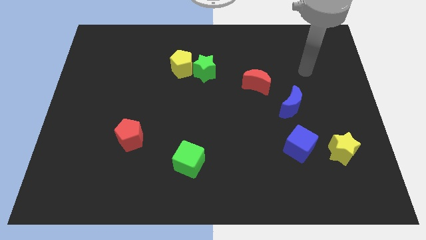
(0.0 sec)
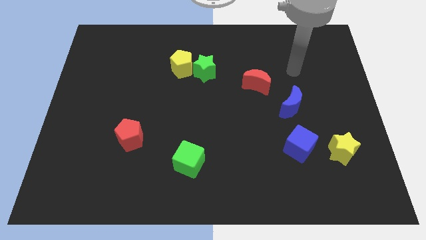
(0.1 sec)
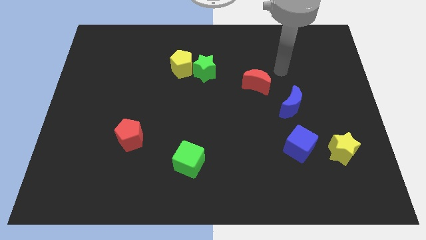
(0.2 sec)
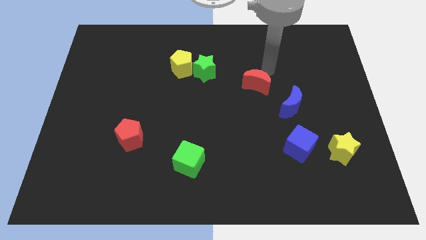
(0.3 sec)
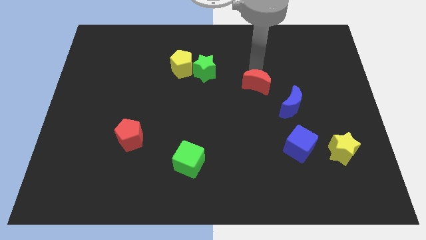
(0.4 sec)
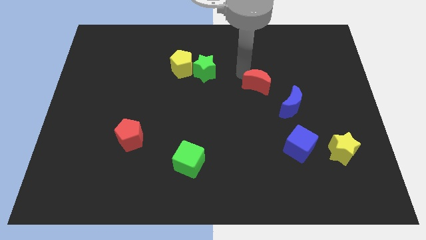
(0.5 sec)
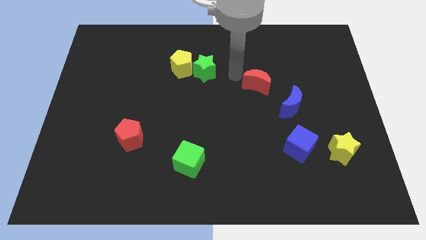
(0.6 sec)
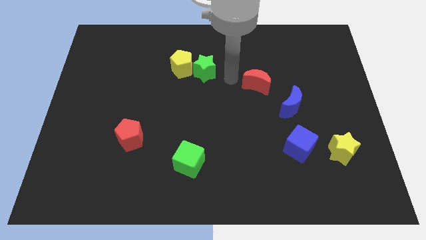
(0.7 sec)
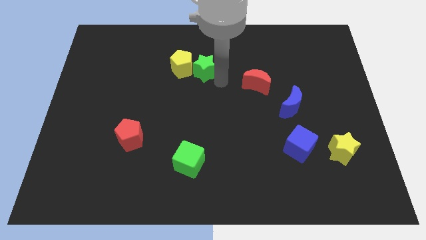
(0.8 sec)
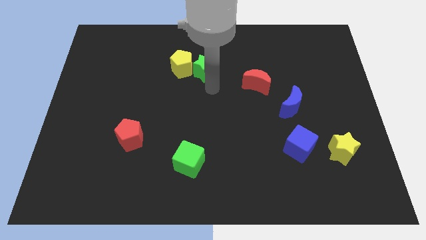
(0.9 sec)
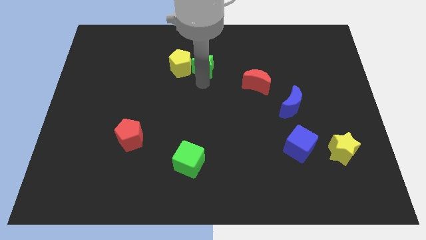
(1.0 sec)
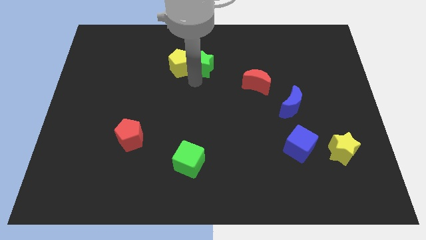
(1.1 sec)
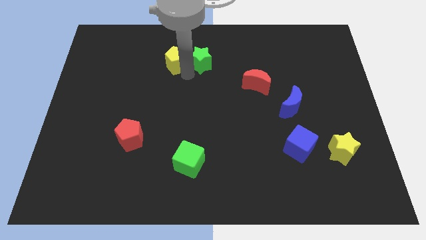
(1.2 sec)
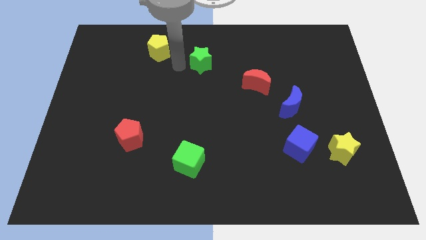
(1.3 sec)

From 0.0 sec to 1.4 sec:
pull the green star apart from the yellow pentagon

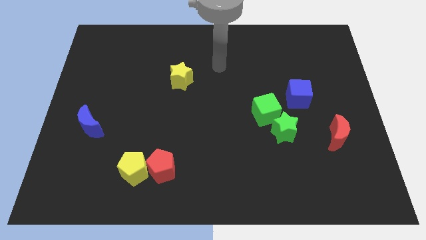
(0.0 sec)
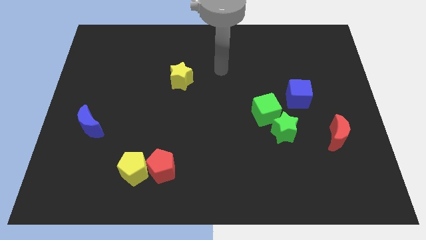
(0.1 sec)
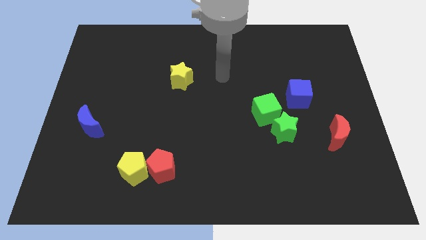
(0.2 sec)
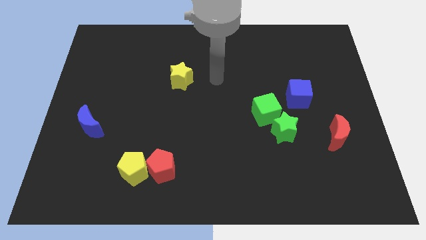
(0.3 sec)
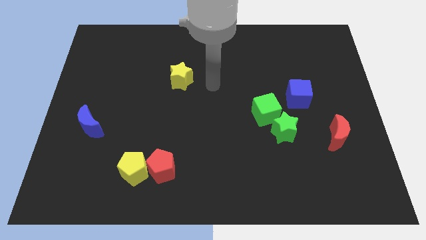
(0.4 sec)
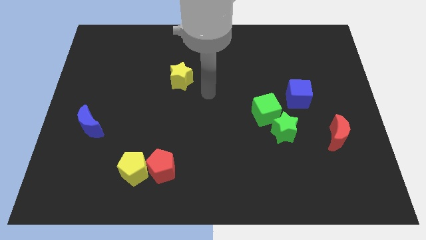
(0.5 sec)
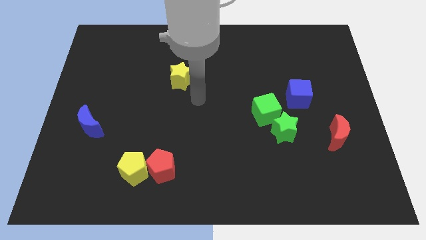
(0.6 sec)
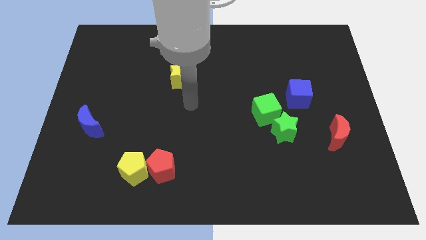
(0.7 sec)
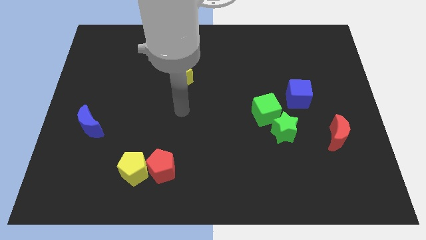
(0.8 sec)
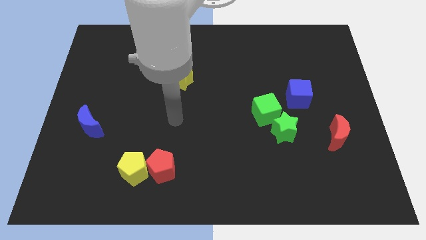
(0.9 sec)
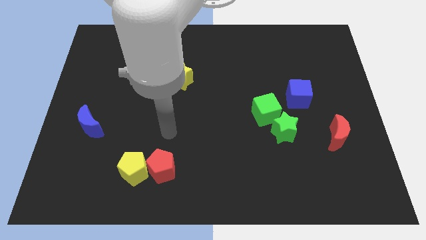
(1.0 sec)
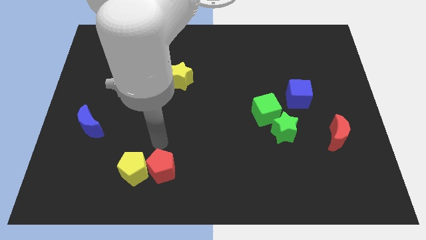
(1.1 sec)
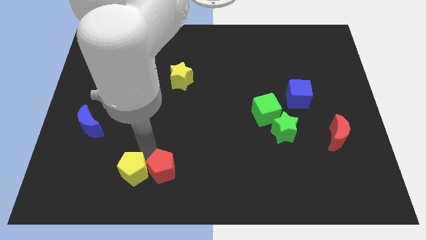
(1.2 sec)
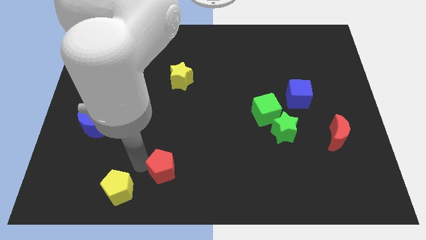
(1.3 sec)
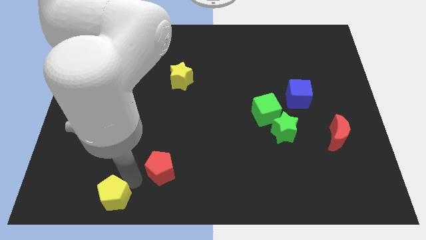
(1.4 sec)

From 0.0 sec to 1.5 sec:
separate the red pentagon from the yellow pentagon

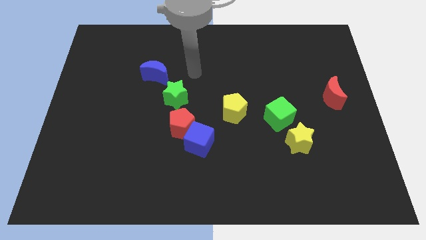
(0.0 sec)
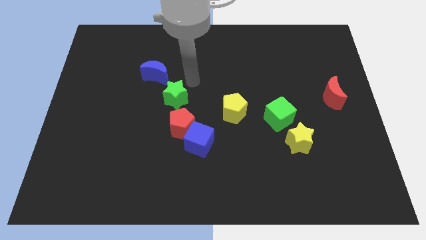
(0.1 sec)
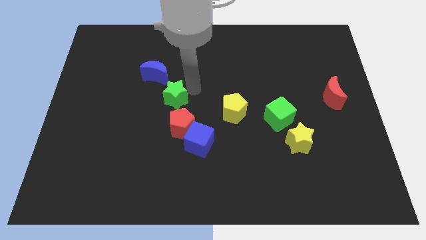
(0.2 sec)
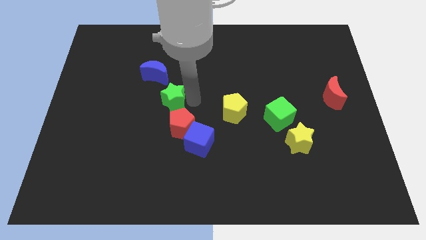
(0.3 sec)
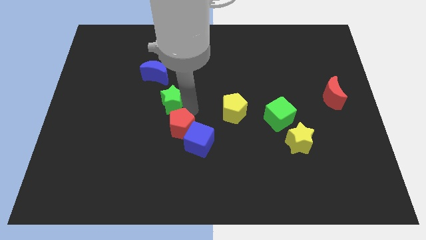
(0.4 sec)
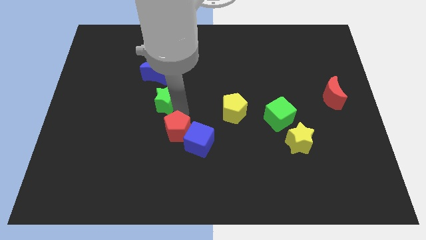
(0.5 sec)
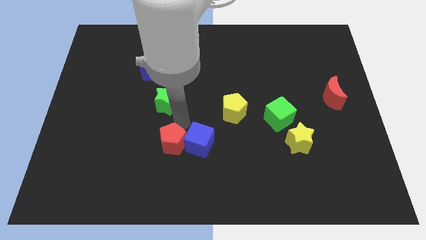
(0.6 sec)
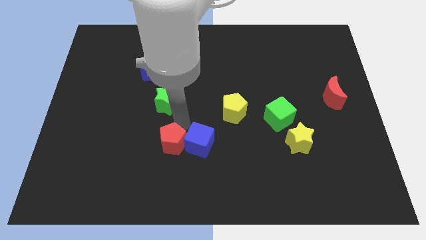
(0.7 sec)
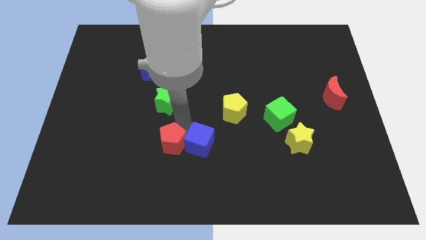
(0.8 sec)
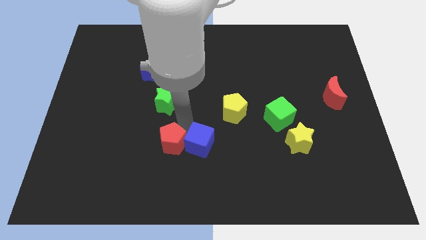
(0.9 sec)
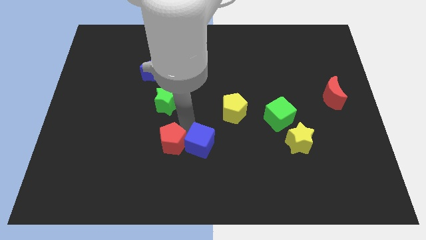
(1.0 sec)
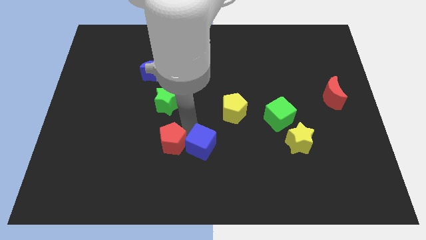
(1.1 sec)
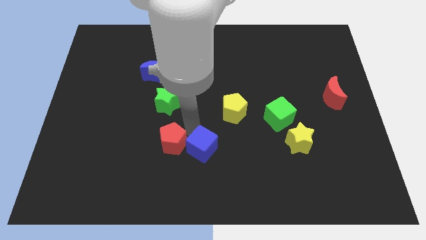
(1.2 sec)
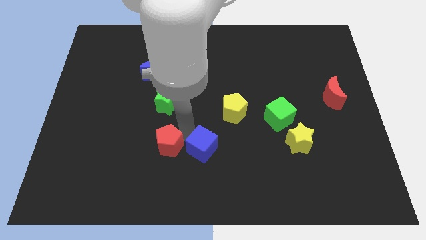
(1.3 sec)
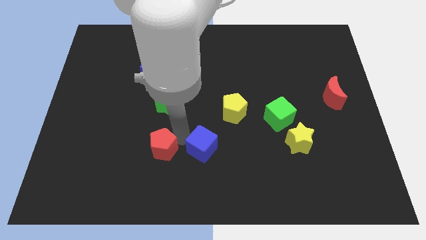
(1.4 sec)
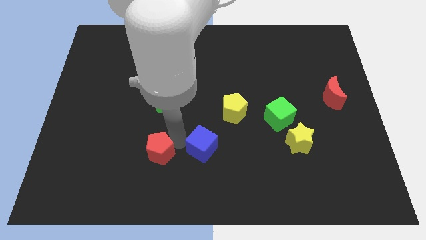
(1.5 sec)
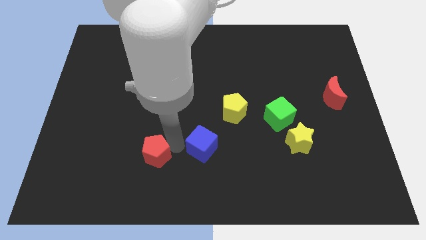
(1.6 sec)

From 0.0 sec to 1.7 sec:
pull the blue cube apart from the red pentagon

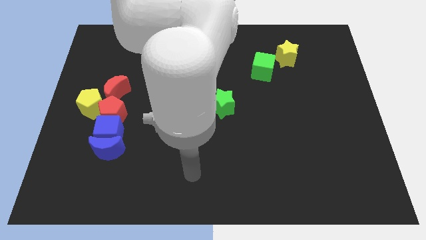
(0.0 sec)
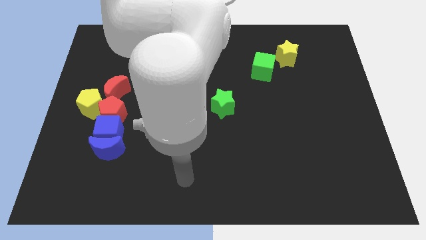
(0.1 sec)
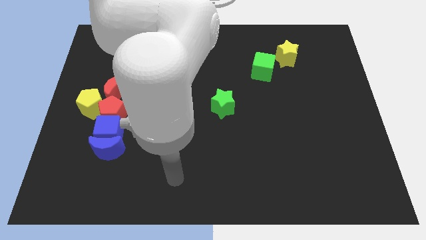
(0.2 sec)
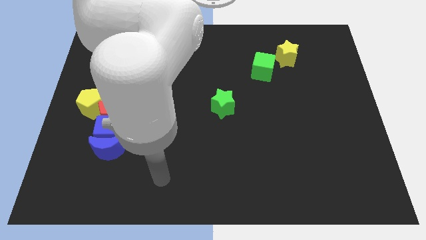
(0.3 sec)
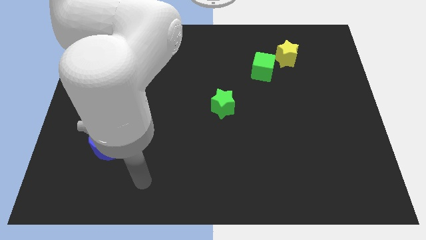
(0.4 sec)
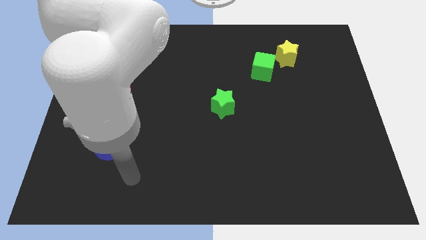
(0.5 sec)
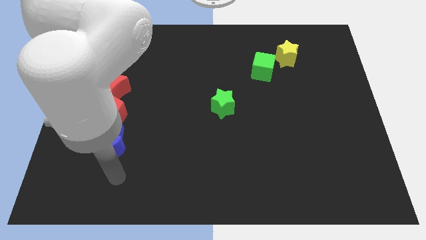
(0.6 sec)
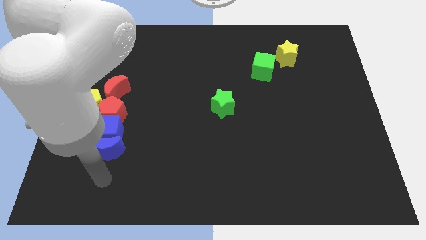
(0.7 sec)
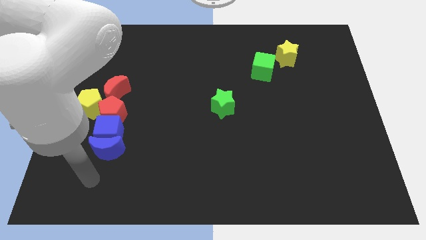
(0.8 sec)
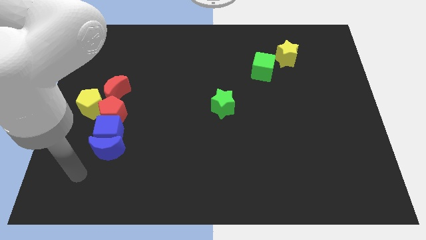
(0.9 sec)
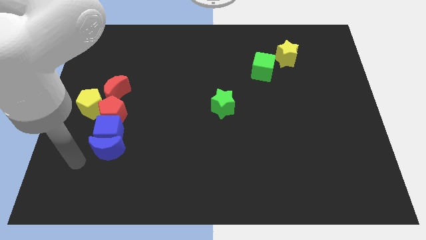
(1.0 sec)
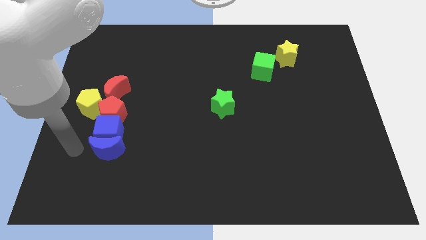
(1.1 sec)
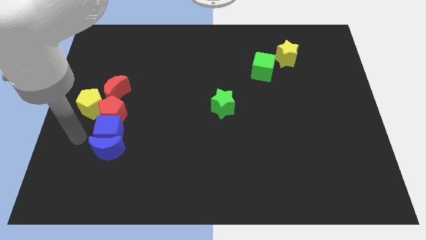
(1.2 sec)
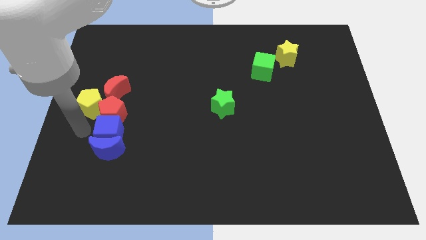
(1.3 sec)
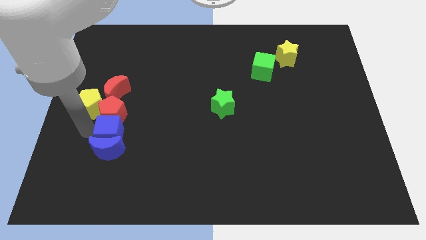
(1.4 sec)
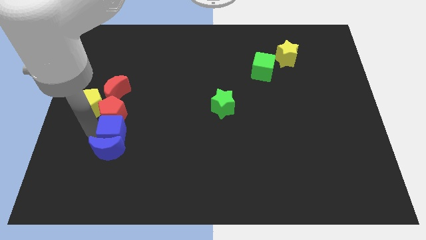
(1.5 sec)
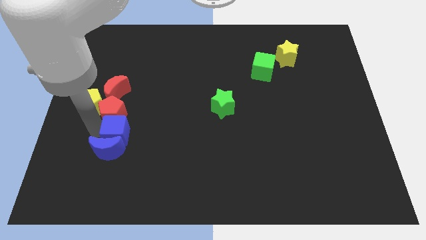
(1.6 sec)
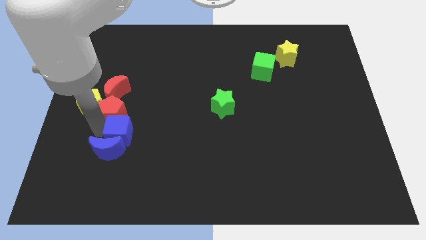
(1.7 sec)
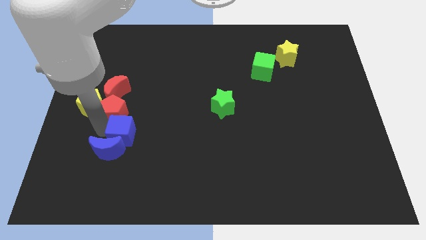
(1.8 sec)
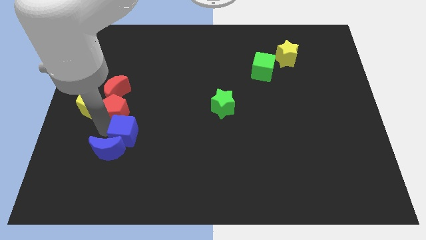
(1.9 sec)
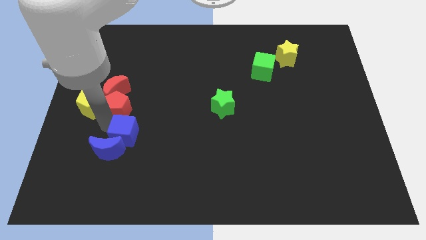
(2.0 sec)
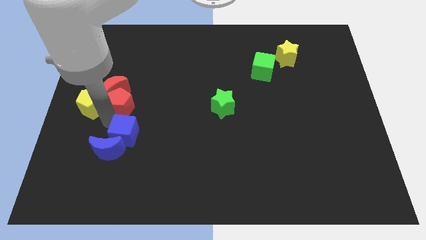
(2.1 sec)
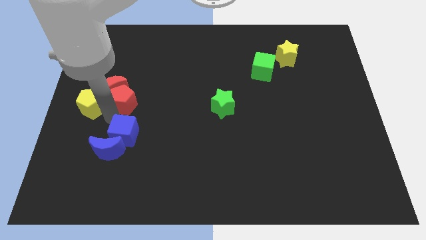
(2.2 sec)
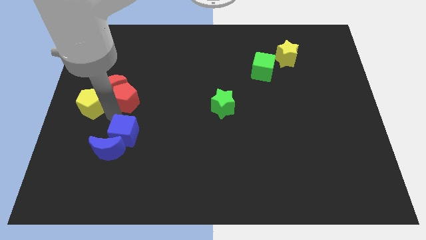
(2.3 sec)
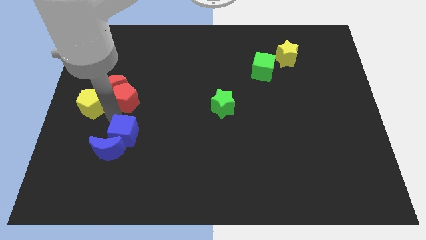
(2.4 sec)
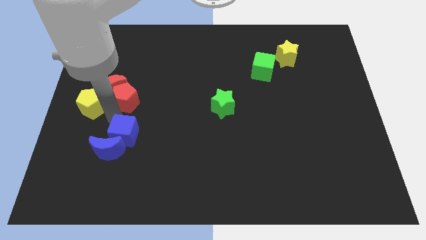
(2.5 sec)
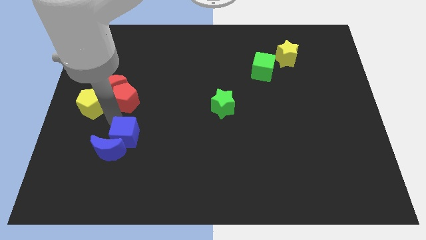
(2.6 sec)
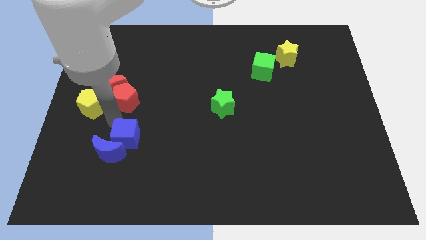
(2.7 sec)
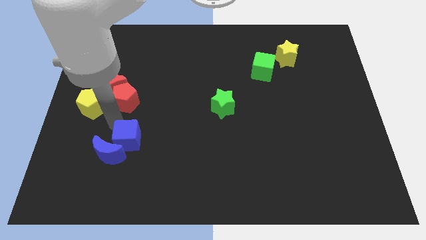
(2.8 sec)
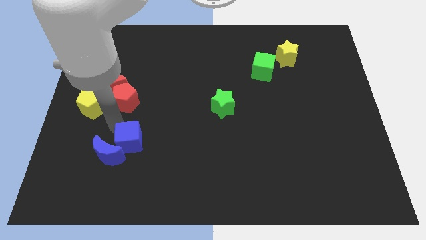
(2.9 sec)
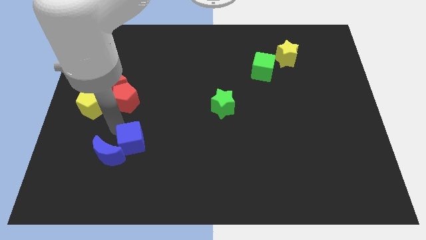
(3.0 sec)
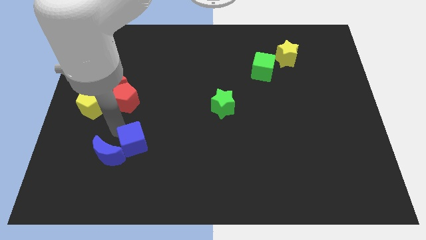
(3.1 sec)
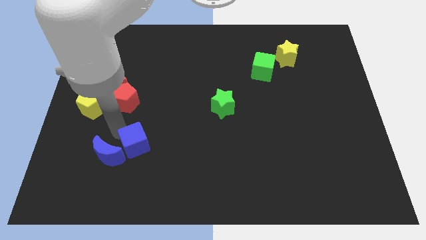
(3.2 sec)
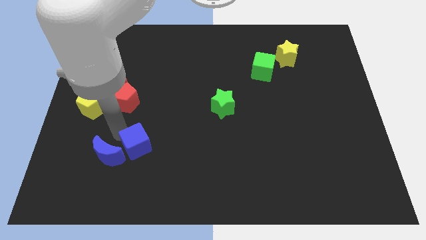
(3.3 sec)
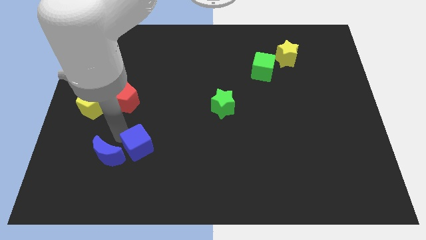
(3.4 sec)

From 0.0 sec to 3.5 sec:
separate the blue cube from the blue moon, red pentagon, and yellow pentagon

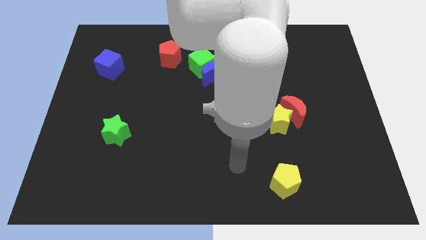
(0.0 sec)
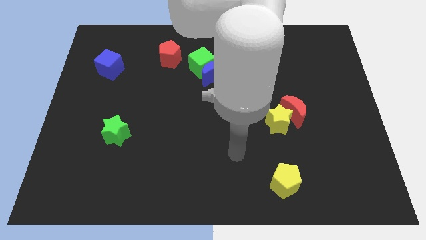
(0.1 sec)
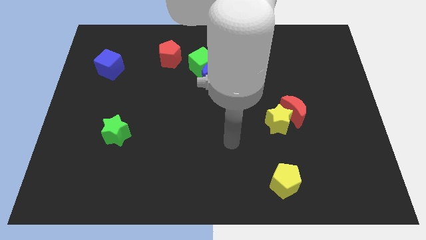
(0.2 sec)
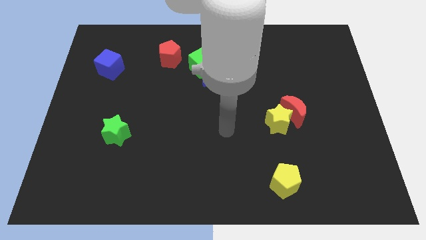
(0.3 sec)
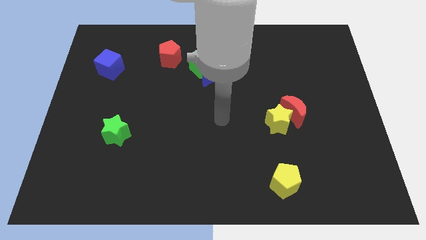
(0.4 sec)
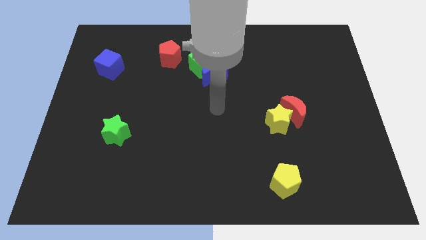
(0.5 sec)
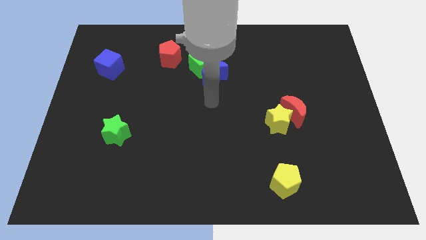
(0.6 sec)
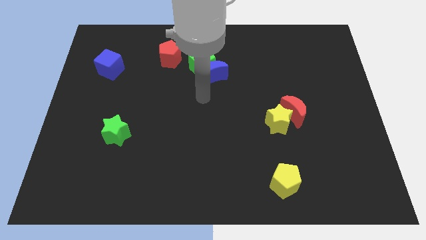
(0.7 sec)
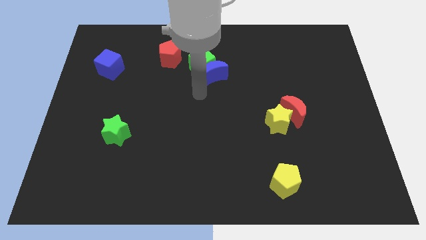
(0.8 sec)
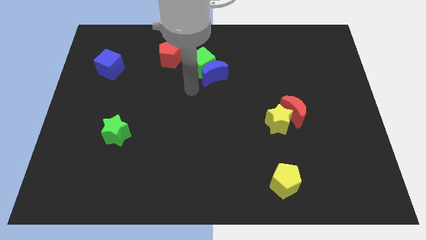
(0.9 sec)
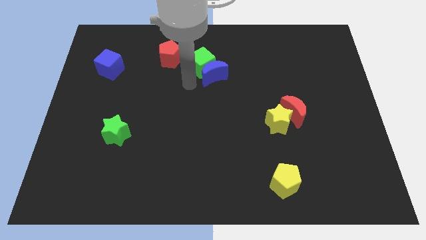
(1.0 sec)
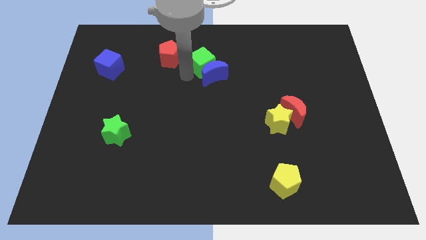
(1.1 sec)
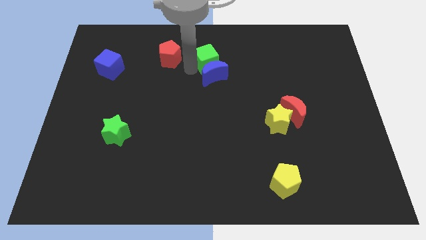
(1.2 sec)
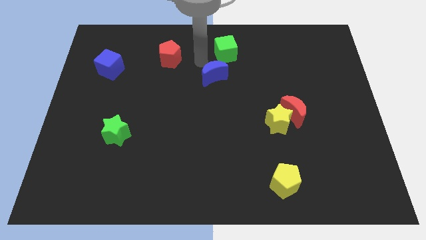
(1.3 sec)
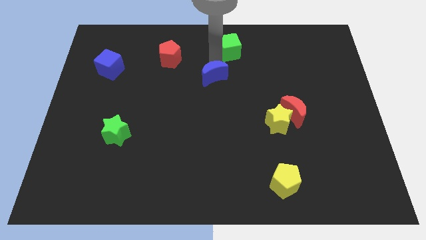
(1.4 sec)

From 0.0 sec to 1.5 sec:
move the blue moon away from the green cube
